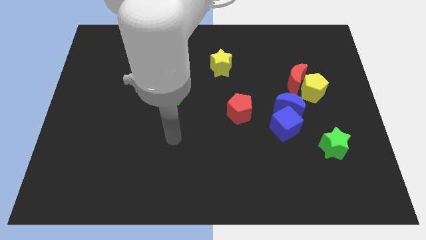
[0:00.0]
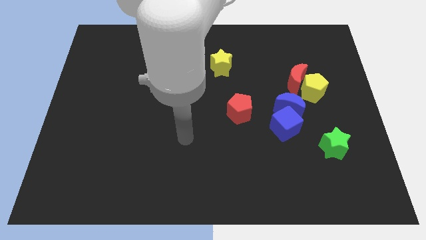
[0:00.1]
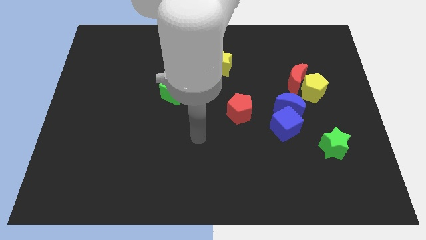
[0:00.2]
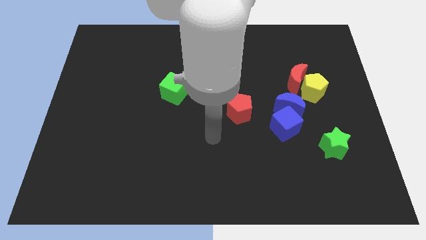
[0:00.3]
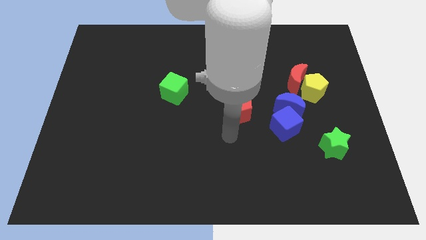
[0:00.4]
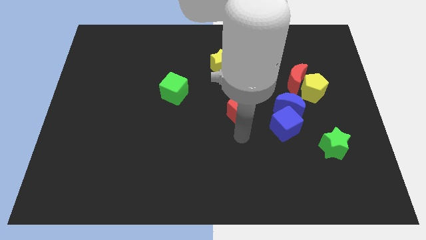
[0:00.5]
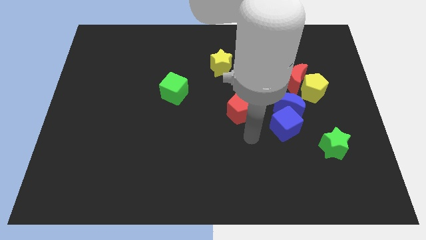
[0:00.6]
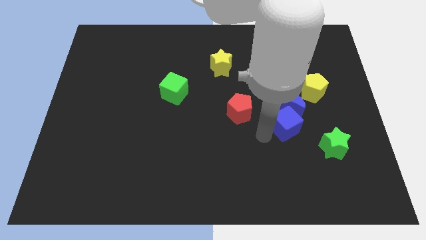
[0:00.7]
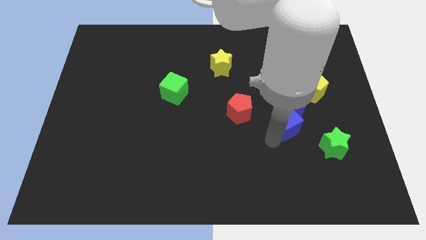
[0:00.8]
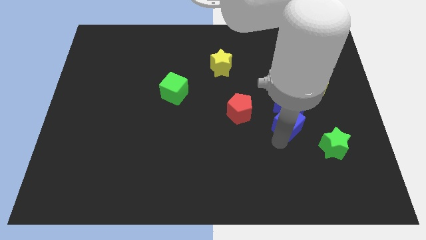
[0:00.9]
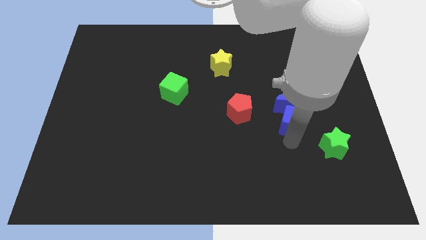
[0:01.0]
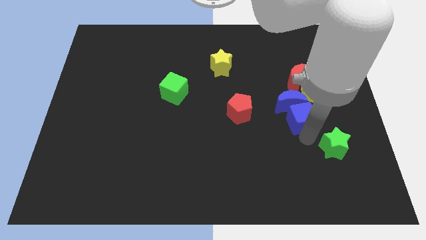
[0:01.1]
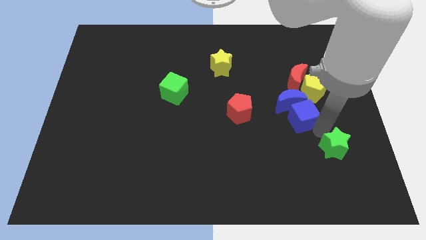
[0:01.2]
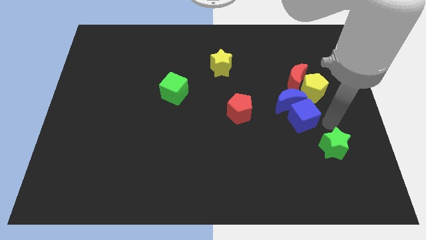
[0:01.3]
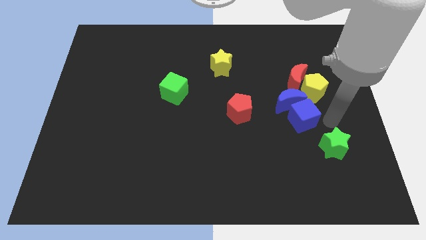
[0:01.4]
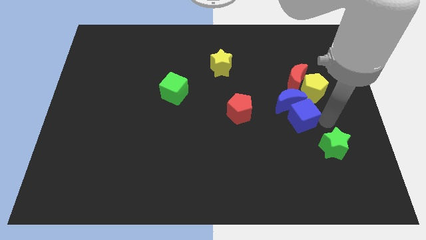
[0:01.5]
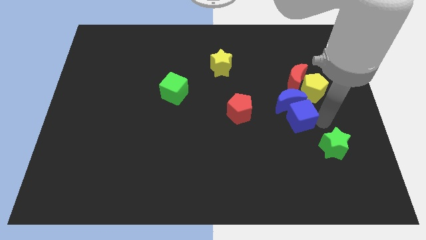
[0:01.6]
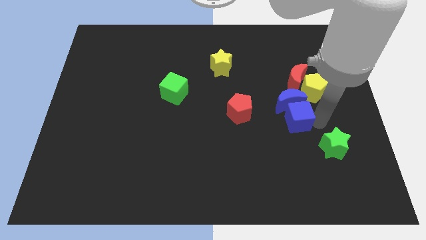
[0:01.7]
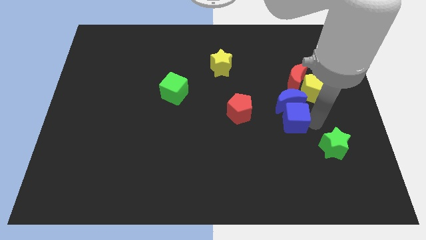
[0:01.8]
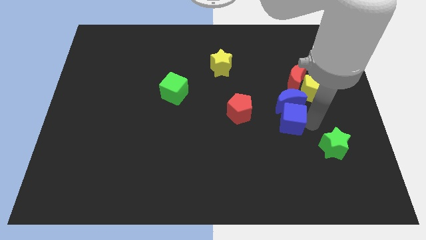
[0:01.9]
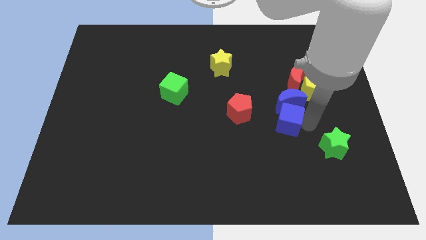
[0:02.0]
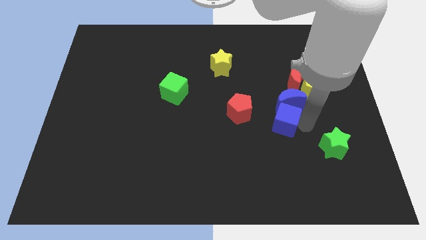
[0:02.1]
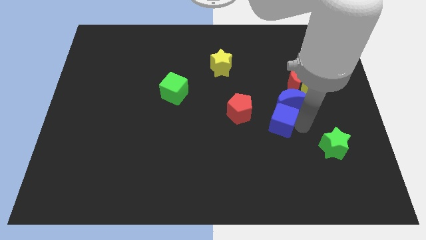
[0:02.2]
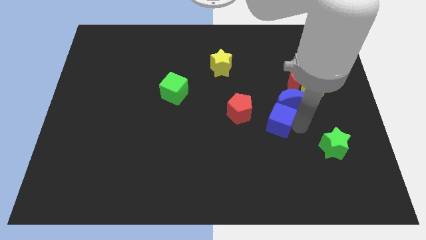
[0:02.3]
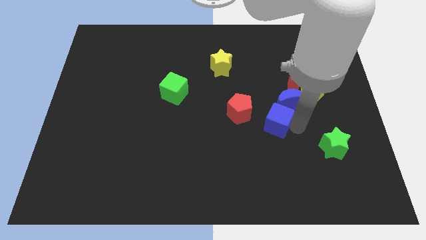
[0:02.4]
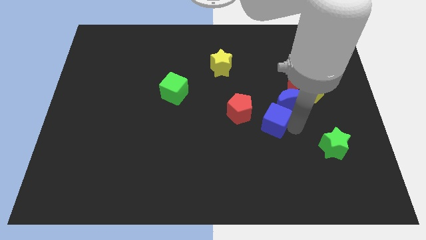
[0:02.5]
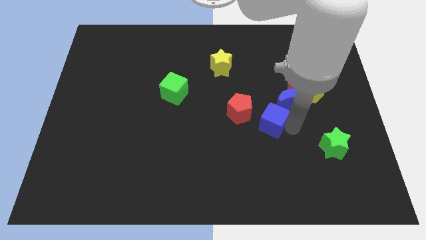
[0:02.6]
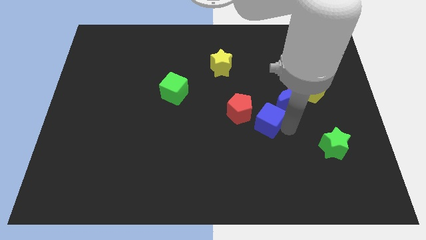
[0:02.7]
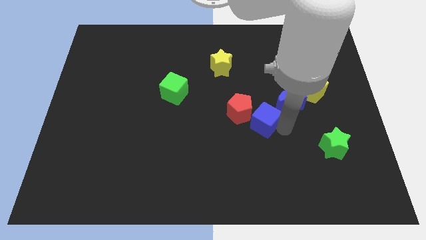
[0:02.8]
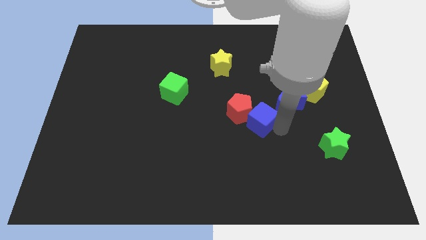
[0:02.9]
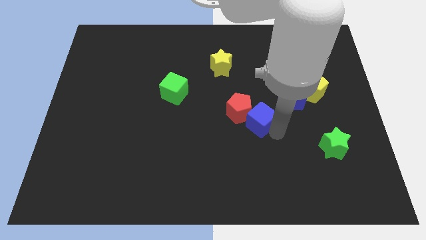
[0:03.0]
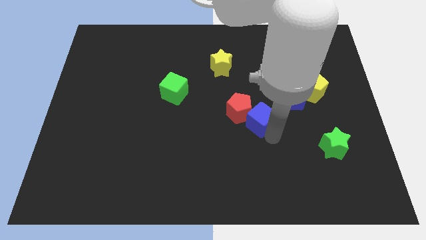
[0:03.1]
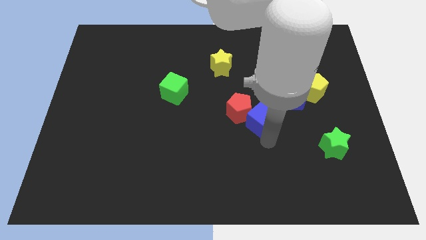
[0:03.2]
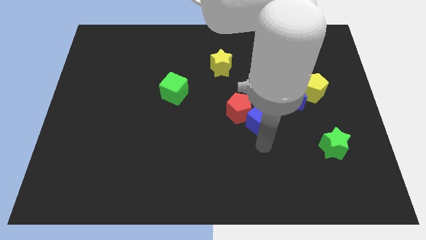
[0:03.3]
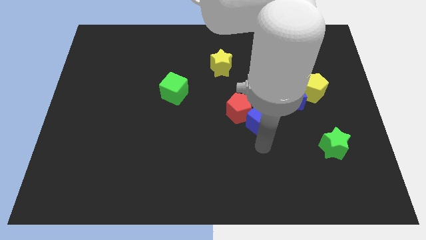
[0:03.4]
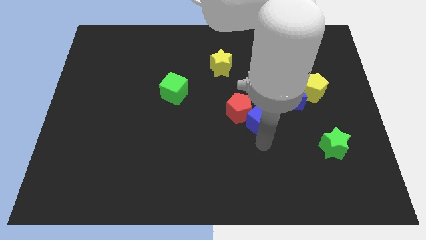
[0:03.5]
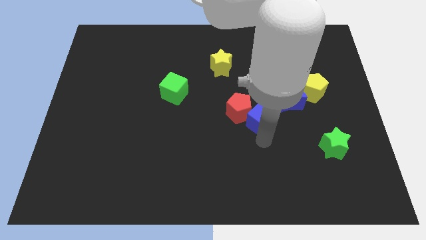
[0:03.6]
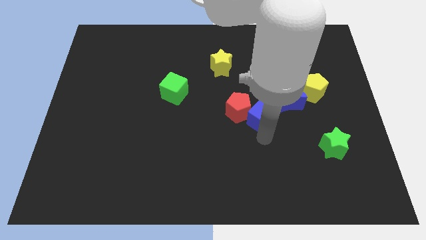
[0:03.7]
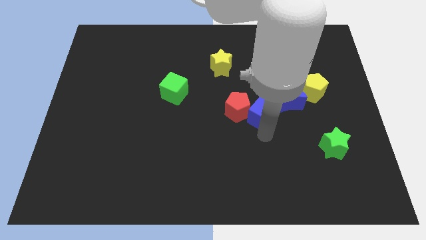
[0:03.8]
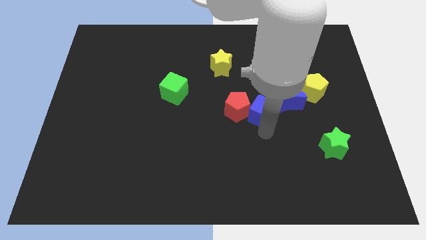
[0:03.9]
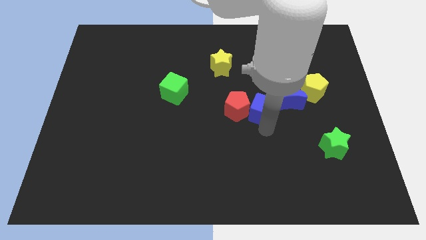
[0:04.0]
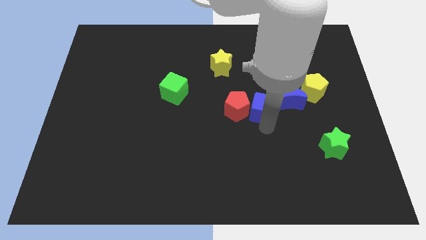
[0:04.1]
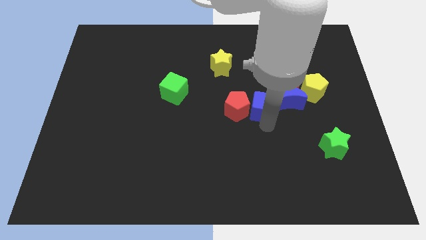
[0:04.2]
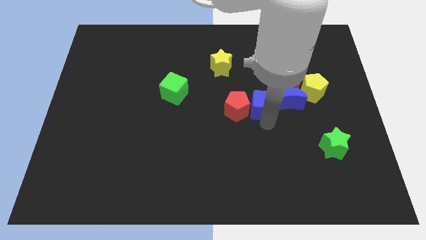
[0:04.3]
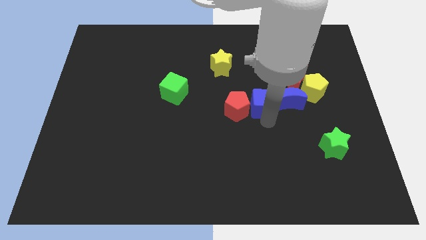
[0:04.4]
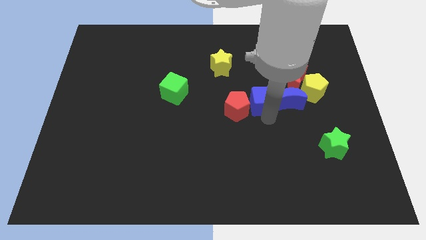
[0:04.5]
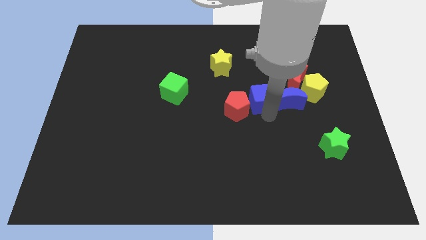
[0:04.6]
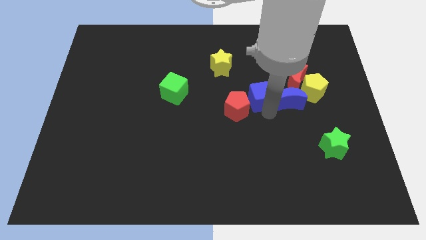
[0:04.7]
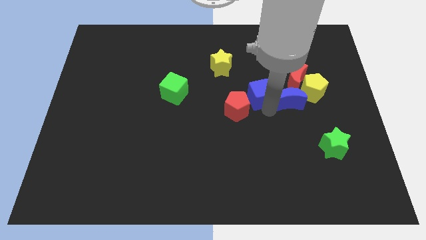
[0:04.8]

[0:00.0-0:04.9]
move the blue cube left of the red moon

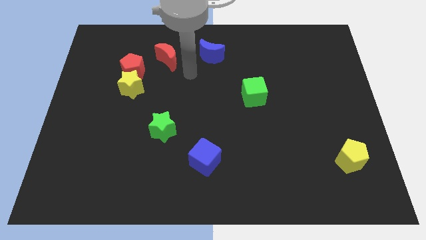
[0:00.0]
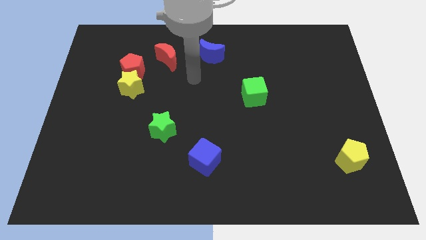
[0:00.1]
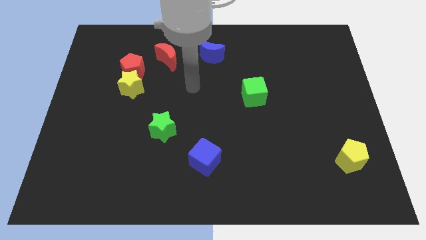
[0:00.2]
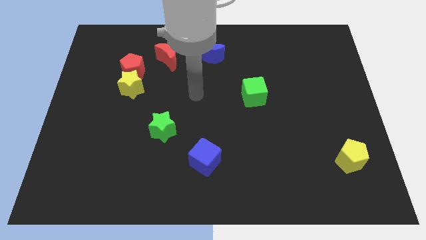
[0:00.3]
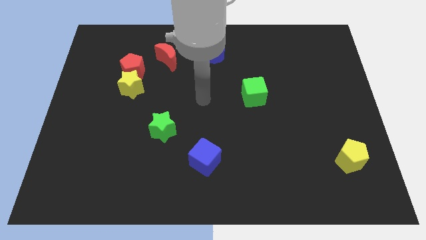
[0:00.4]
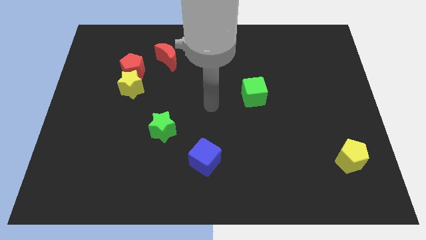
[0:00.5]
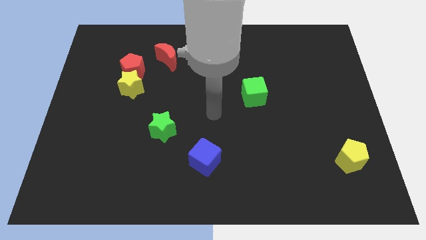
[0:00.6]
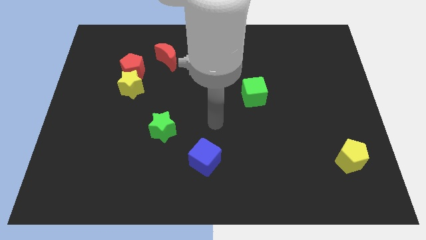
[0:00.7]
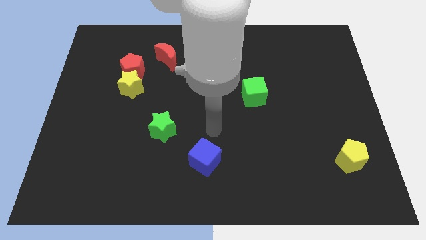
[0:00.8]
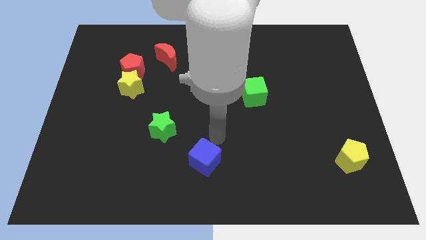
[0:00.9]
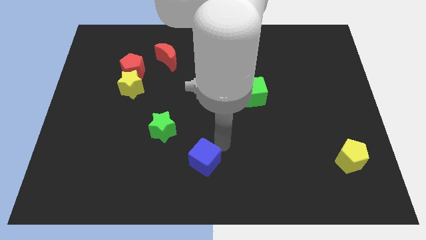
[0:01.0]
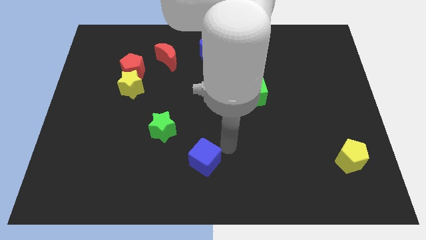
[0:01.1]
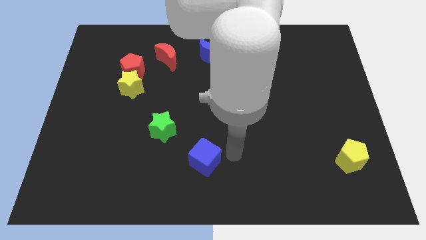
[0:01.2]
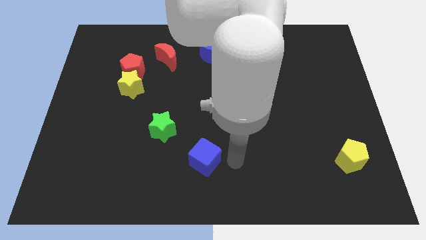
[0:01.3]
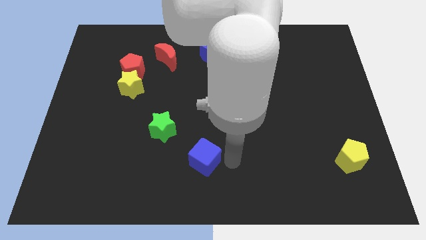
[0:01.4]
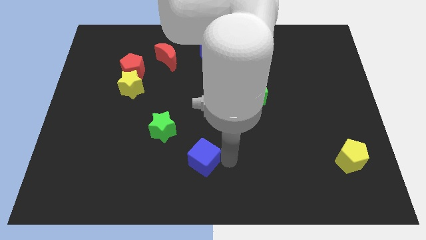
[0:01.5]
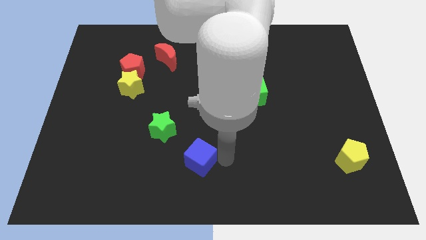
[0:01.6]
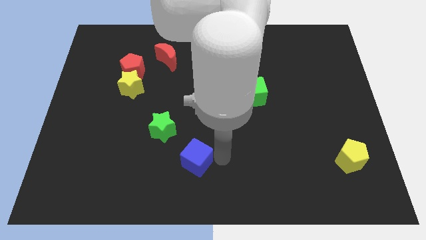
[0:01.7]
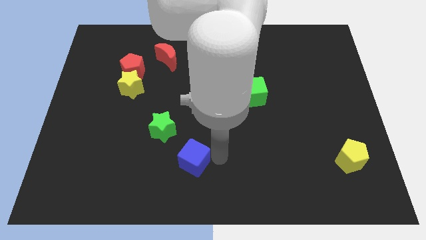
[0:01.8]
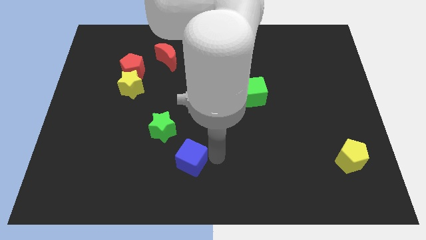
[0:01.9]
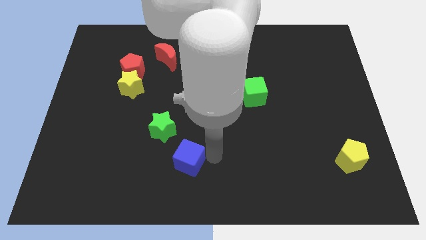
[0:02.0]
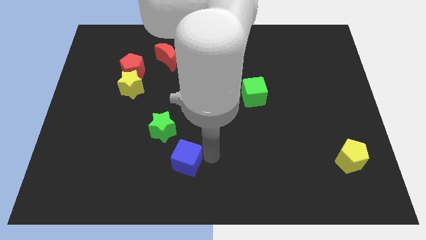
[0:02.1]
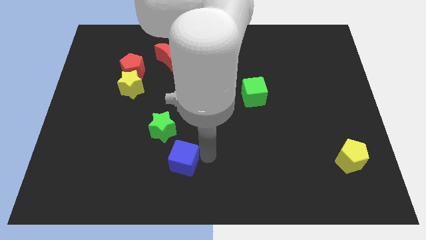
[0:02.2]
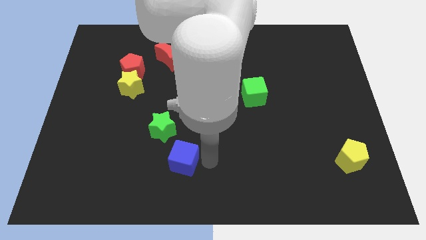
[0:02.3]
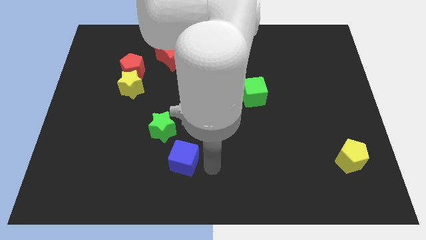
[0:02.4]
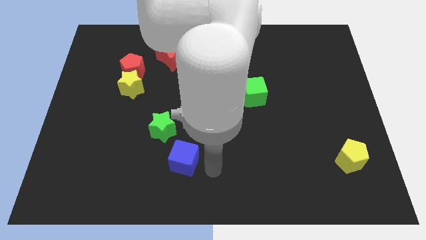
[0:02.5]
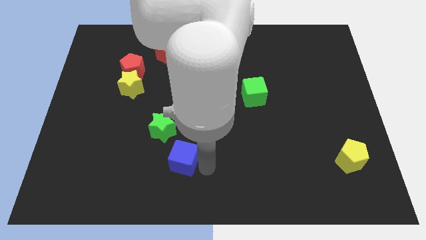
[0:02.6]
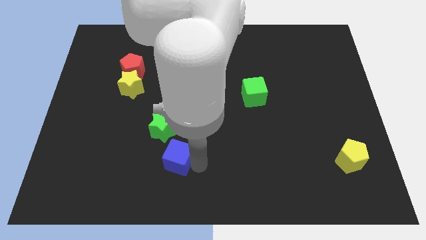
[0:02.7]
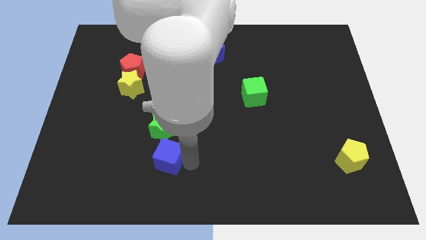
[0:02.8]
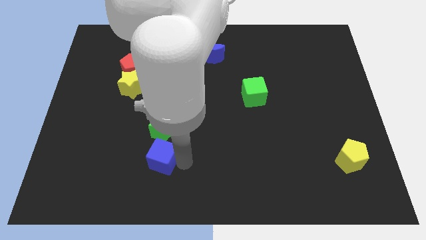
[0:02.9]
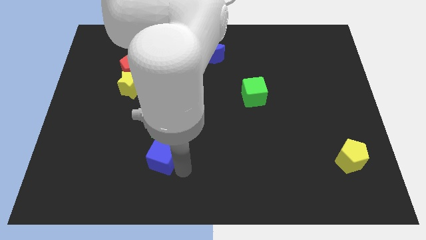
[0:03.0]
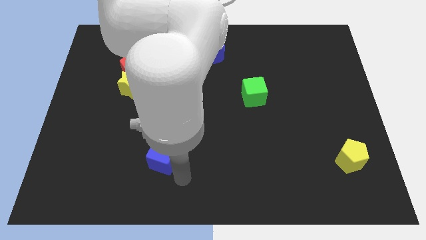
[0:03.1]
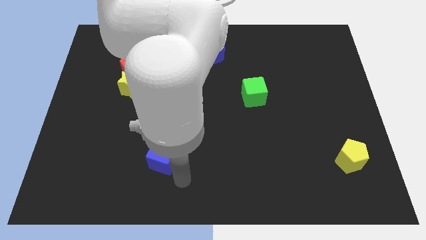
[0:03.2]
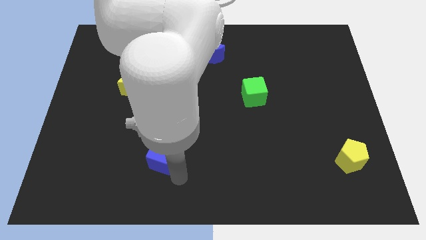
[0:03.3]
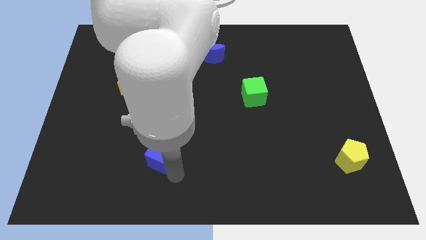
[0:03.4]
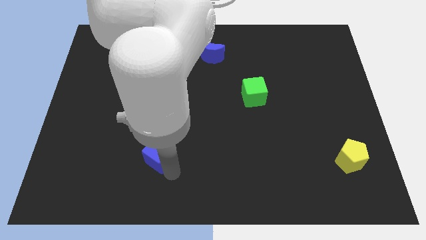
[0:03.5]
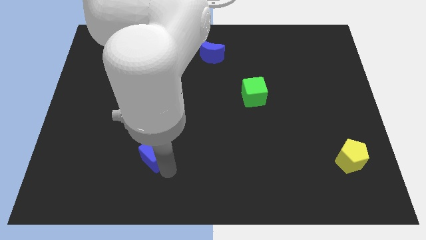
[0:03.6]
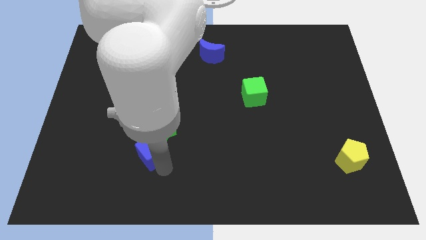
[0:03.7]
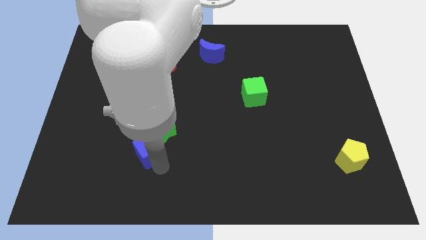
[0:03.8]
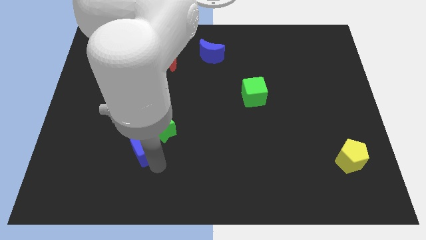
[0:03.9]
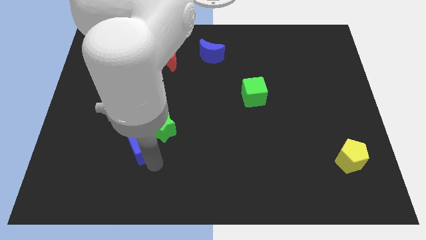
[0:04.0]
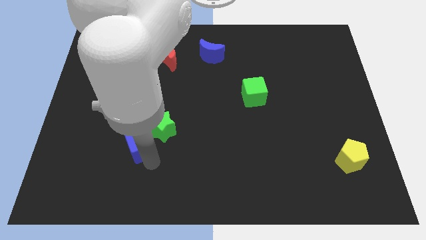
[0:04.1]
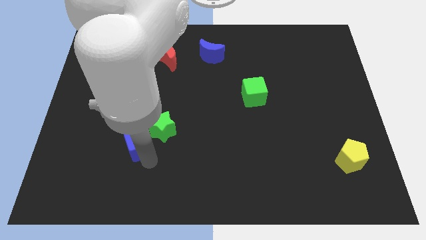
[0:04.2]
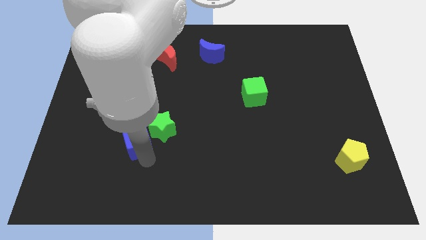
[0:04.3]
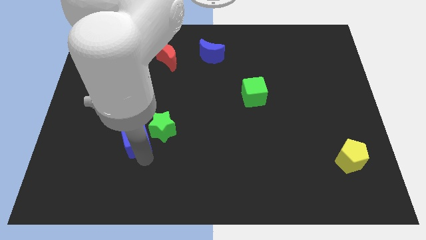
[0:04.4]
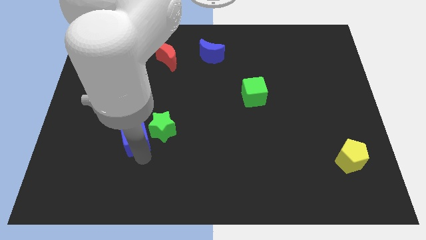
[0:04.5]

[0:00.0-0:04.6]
push the blue cube to the bottom of the yellow star
